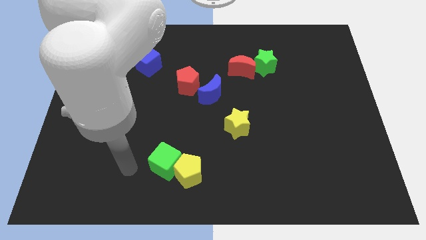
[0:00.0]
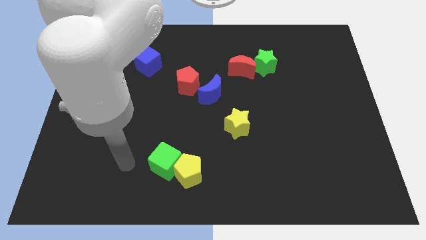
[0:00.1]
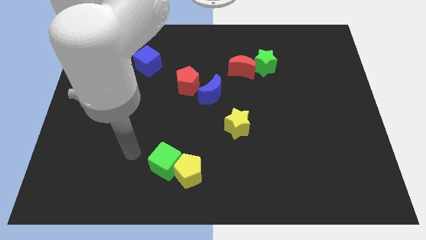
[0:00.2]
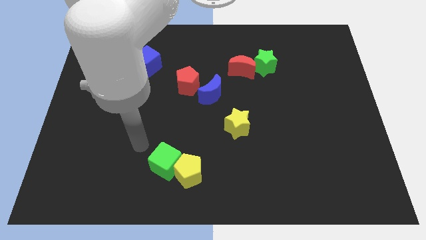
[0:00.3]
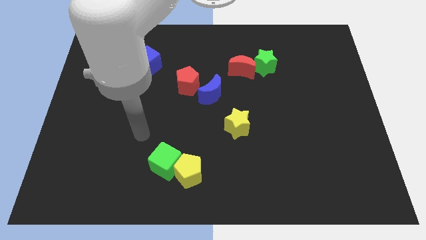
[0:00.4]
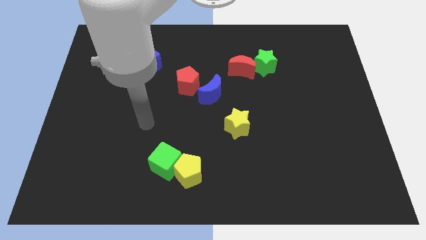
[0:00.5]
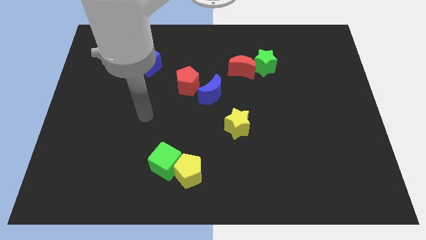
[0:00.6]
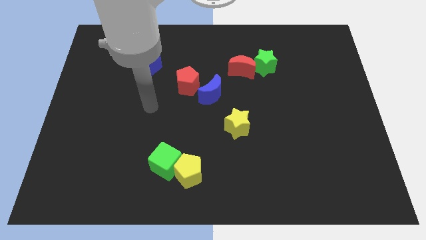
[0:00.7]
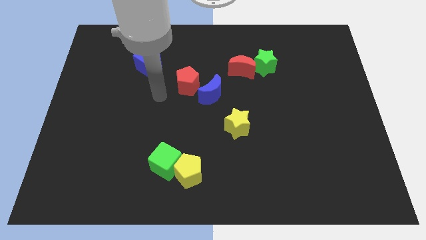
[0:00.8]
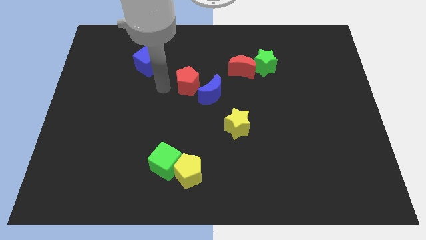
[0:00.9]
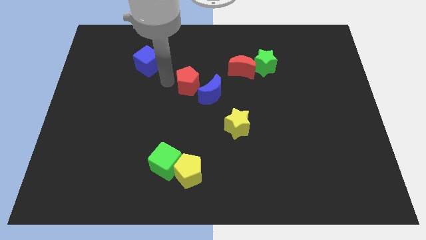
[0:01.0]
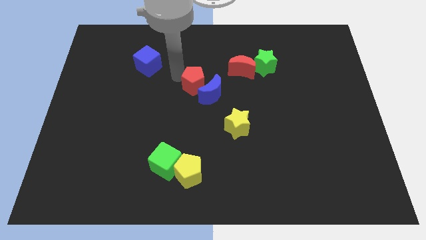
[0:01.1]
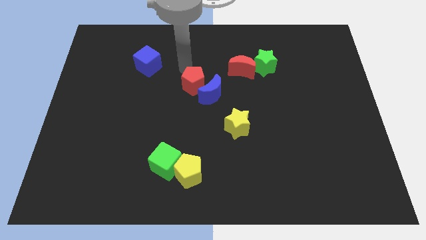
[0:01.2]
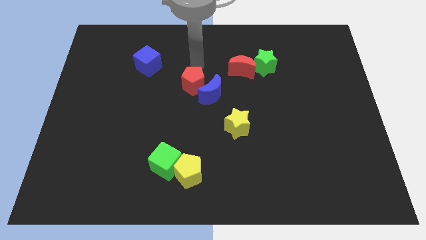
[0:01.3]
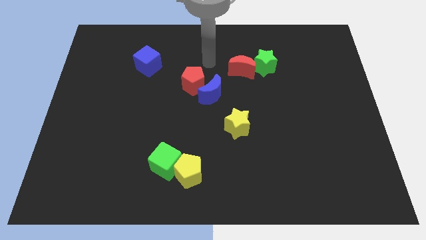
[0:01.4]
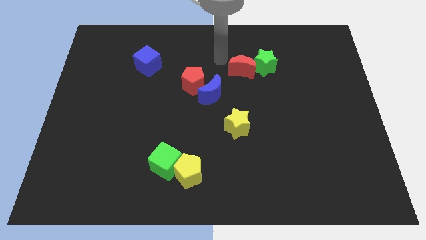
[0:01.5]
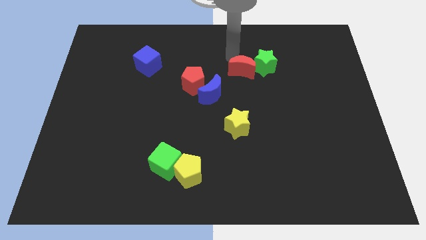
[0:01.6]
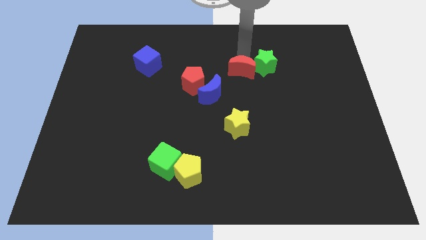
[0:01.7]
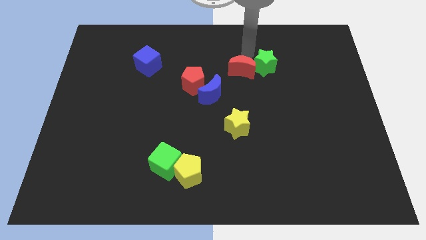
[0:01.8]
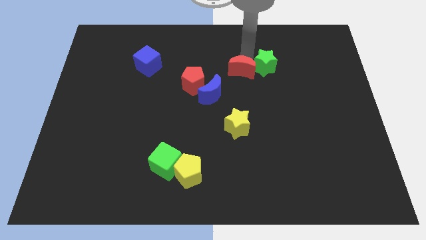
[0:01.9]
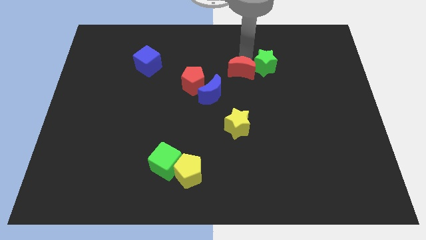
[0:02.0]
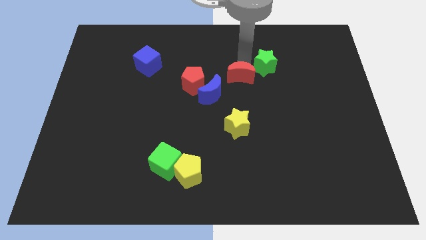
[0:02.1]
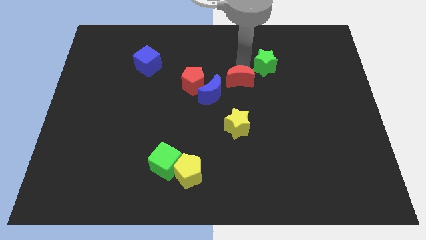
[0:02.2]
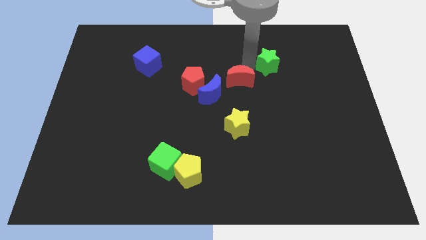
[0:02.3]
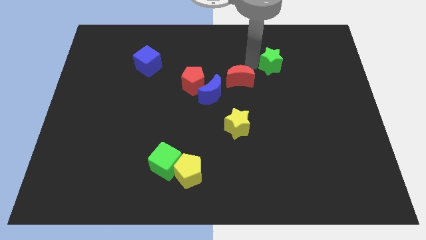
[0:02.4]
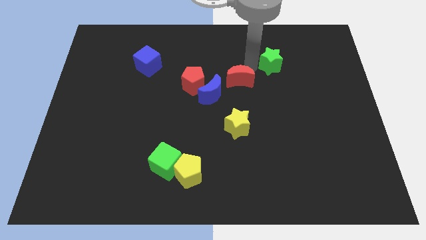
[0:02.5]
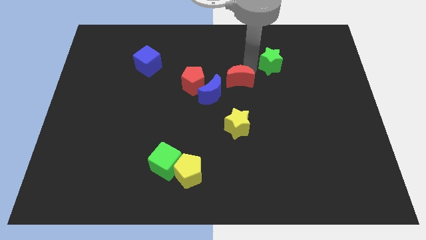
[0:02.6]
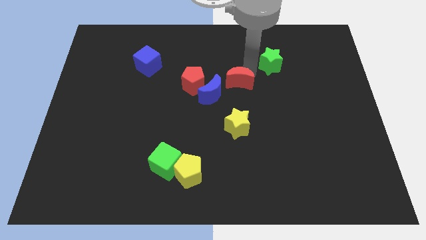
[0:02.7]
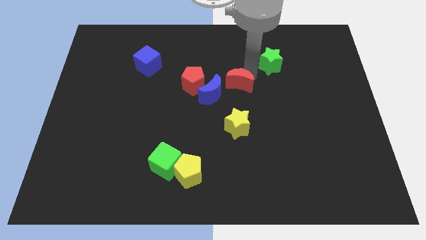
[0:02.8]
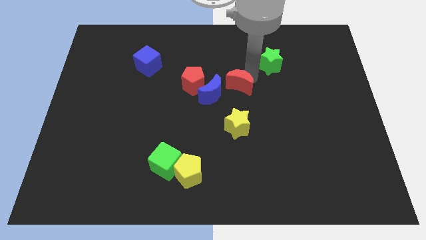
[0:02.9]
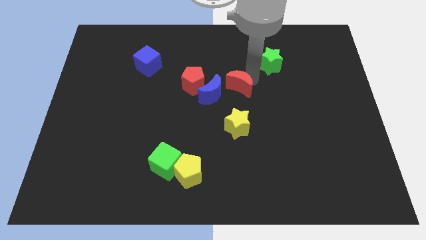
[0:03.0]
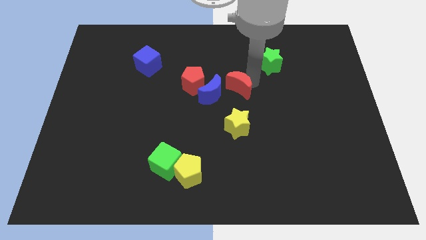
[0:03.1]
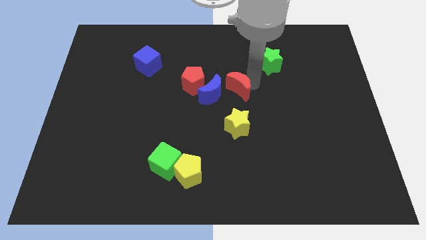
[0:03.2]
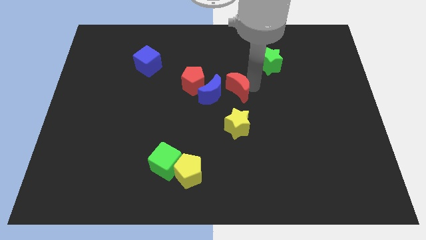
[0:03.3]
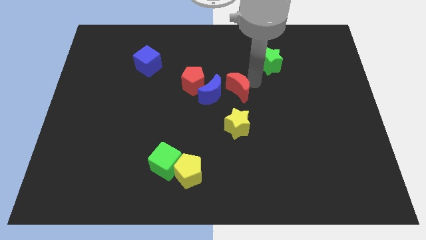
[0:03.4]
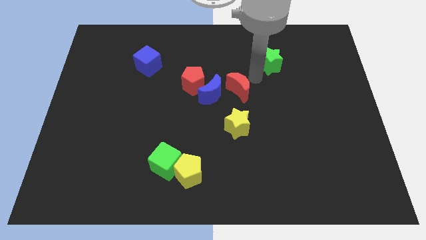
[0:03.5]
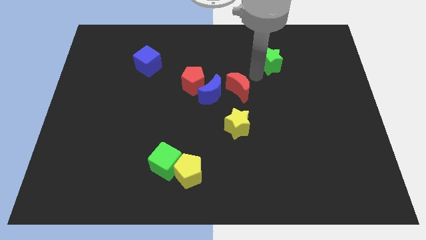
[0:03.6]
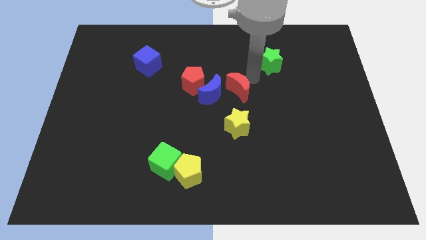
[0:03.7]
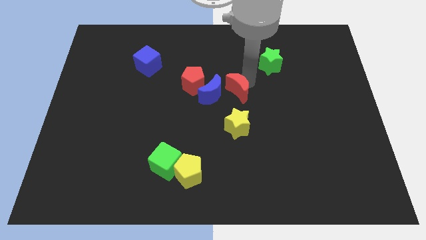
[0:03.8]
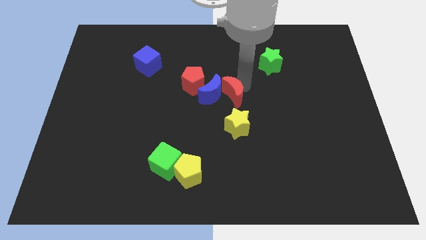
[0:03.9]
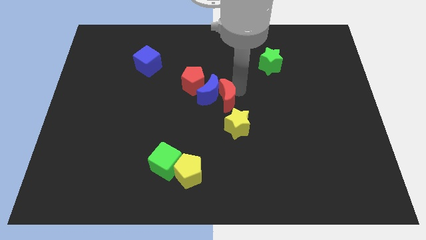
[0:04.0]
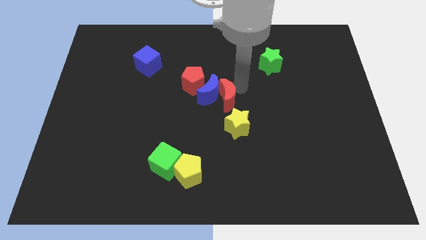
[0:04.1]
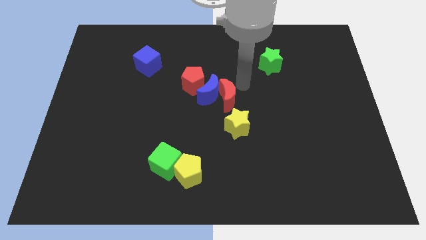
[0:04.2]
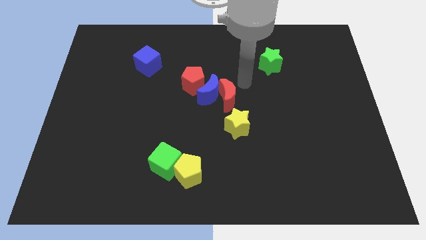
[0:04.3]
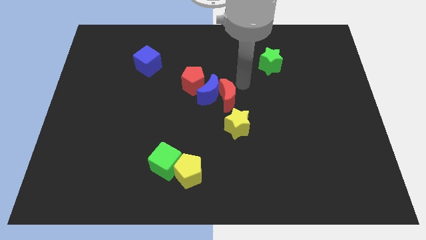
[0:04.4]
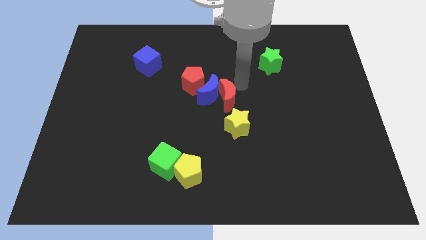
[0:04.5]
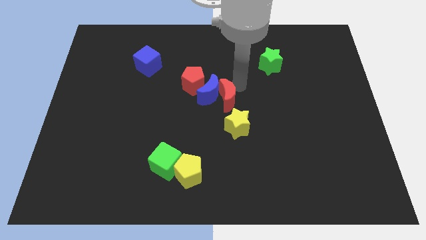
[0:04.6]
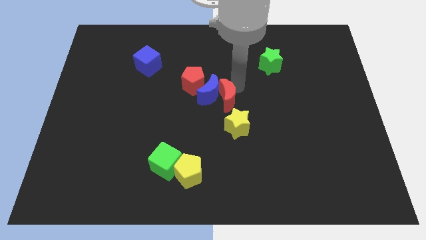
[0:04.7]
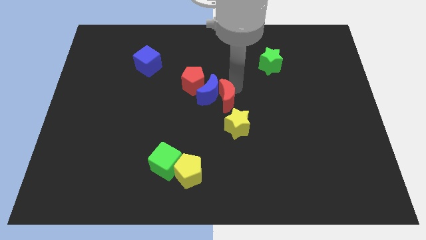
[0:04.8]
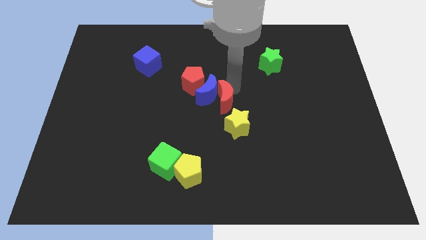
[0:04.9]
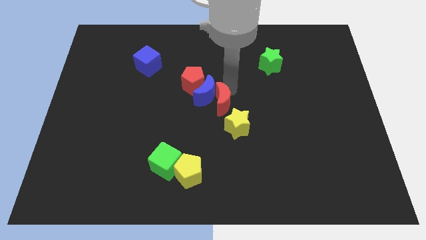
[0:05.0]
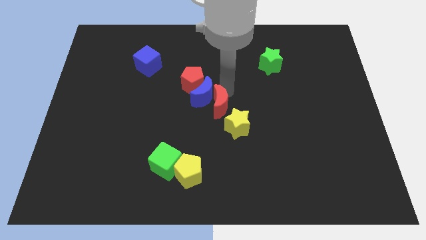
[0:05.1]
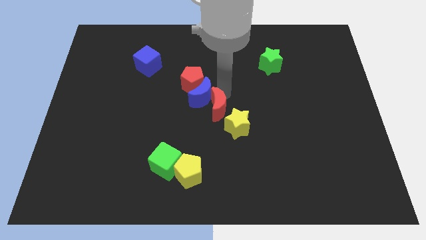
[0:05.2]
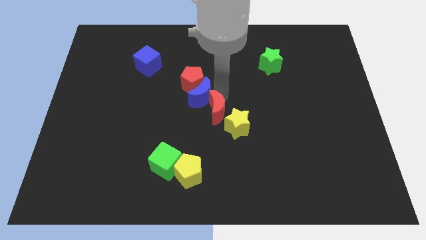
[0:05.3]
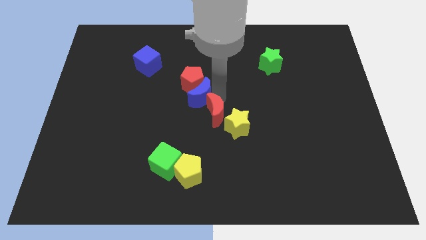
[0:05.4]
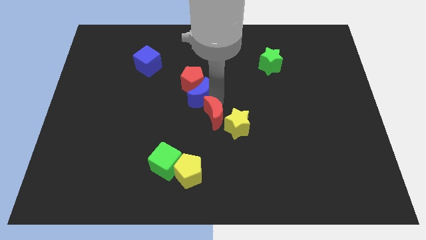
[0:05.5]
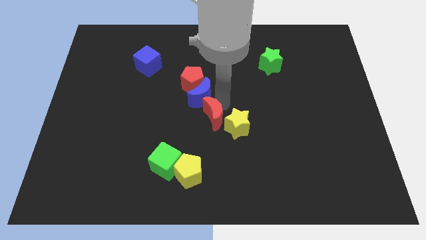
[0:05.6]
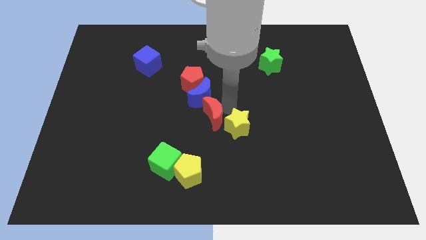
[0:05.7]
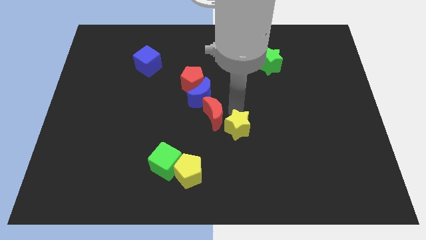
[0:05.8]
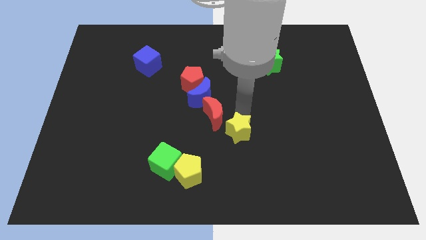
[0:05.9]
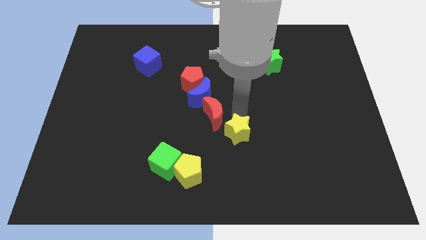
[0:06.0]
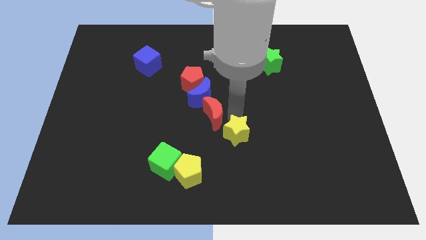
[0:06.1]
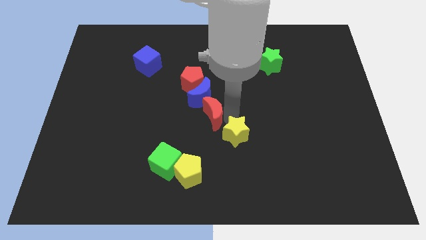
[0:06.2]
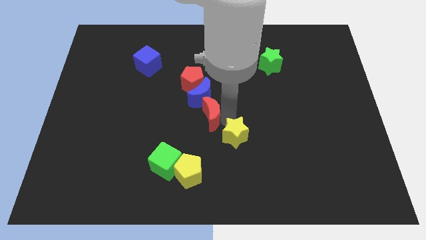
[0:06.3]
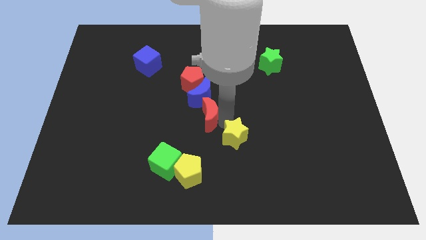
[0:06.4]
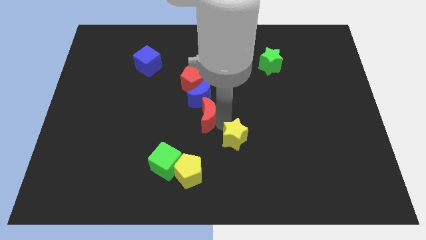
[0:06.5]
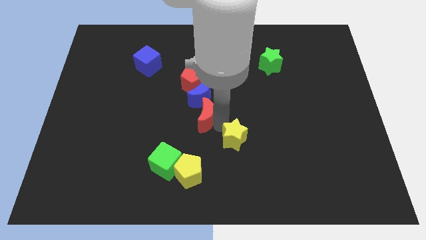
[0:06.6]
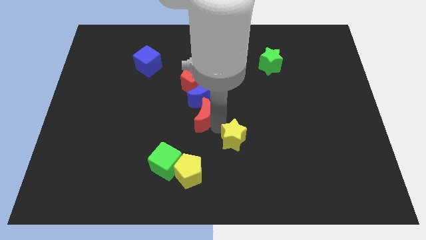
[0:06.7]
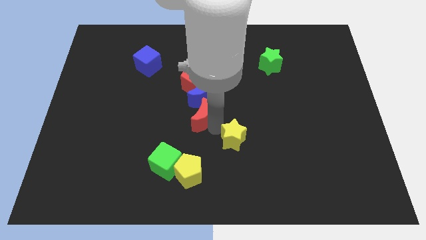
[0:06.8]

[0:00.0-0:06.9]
push the red moon diagonally down and to the left of the blue moon
